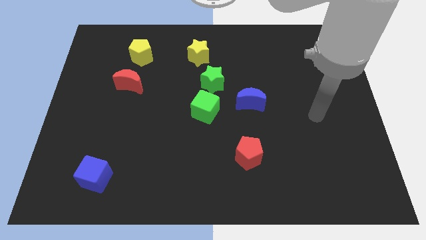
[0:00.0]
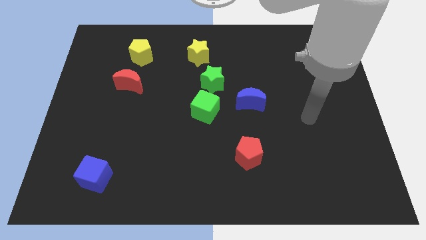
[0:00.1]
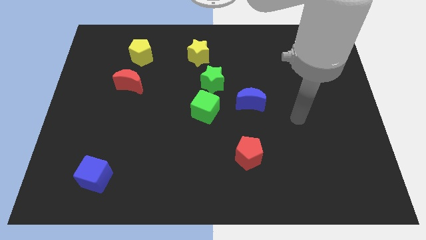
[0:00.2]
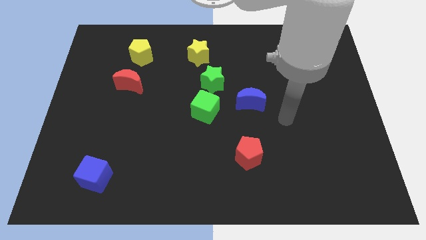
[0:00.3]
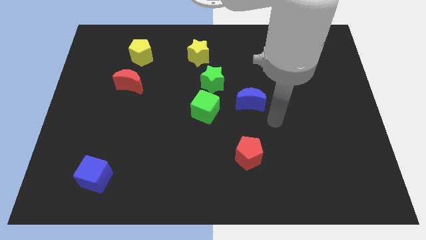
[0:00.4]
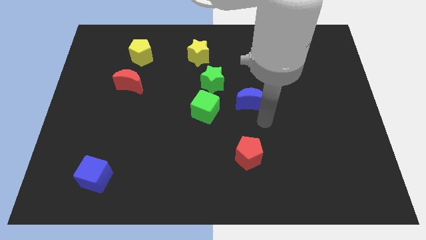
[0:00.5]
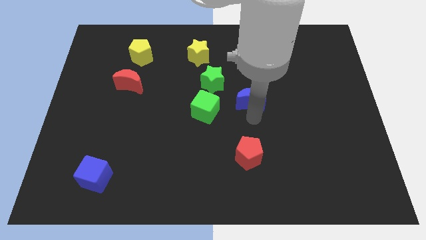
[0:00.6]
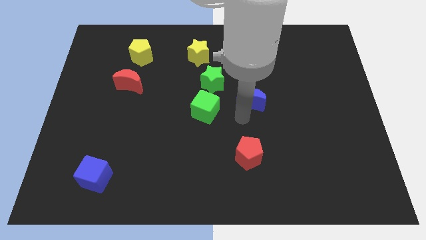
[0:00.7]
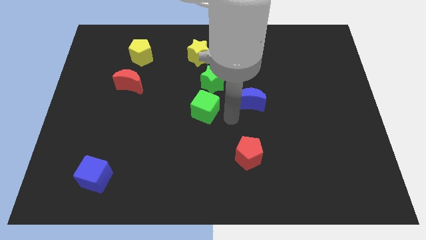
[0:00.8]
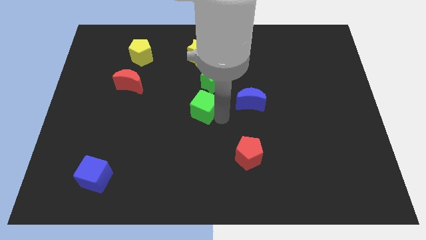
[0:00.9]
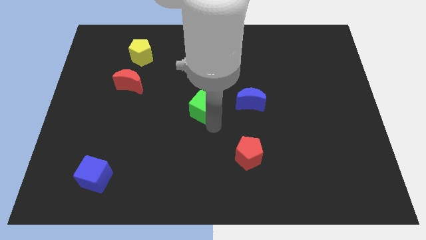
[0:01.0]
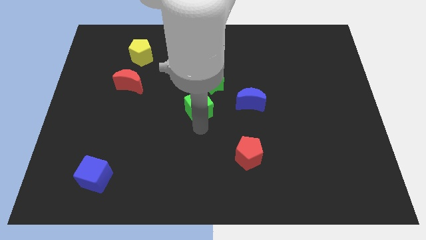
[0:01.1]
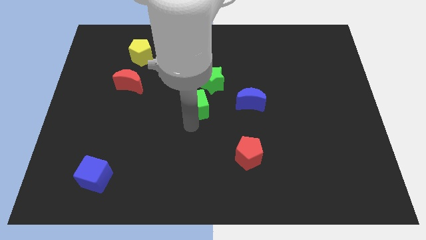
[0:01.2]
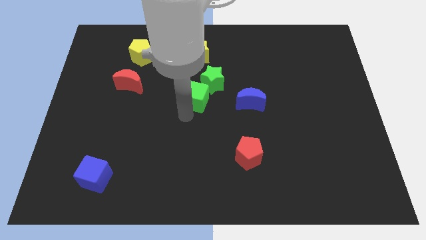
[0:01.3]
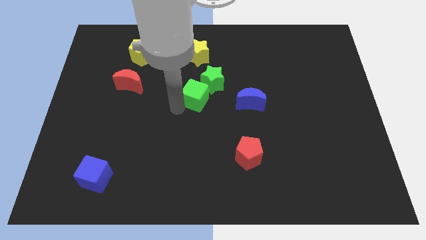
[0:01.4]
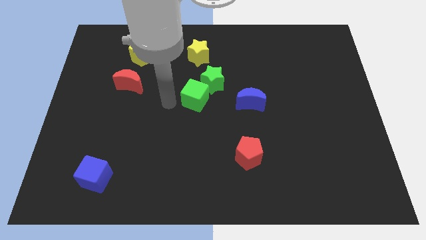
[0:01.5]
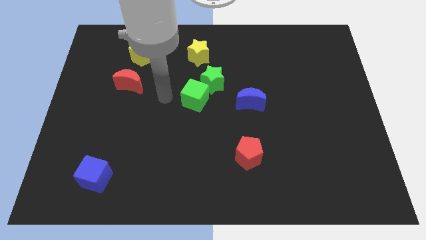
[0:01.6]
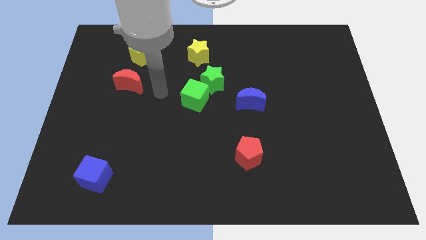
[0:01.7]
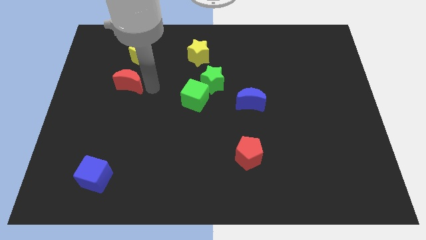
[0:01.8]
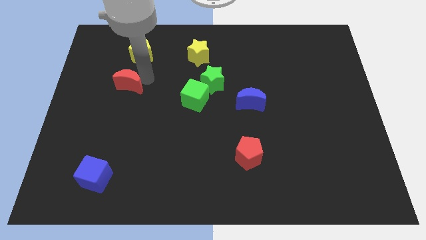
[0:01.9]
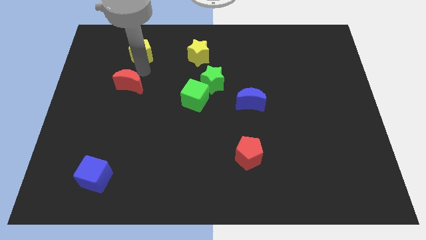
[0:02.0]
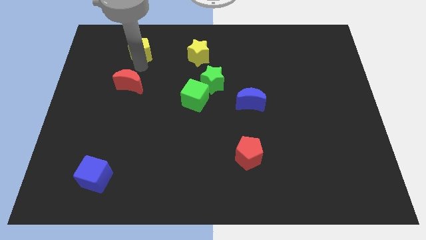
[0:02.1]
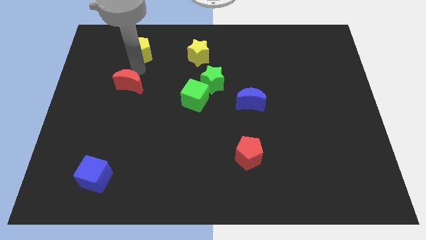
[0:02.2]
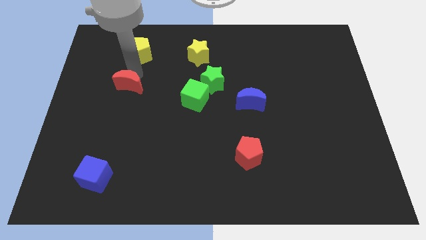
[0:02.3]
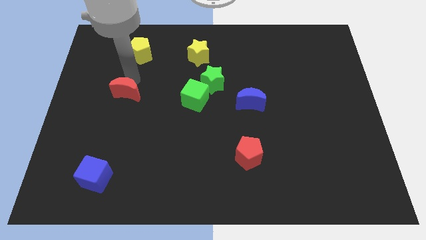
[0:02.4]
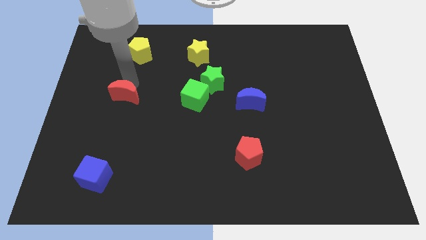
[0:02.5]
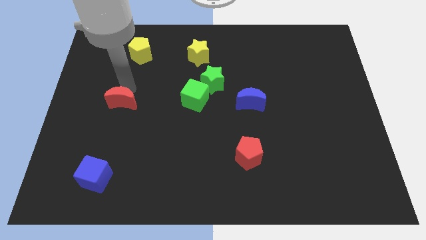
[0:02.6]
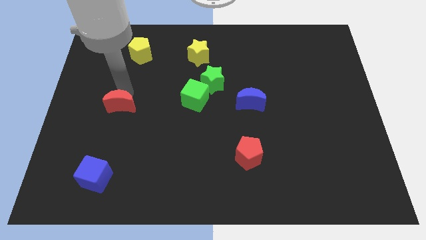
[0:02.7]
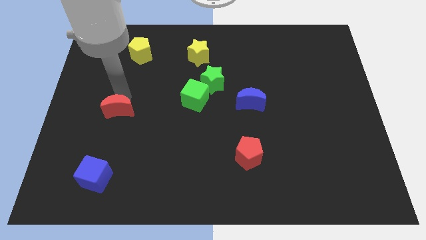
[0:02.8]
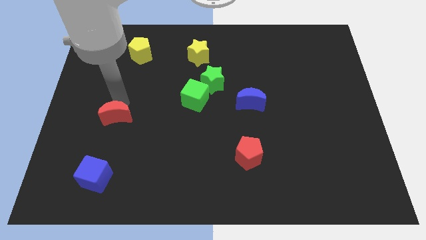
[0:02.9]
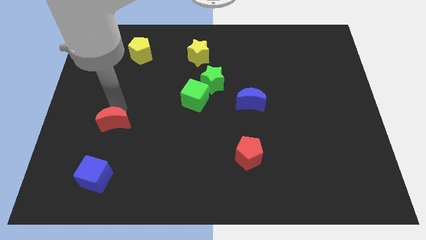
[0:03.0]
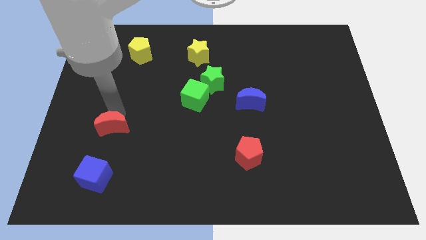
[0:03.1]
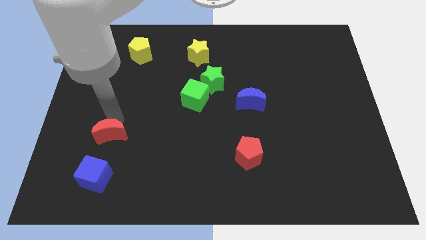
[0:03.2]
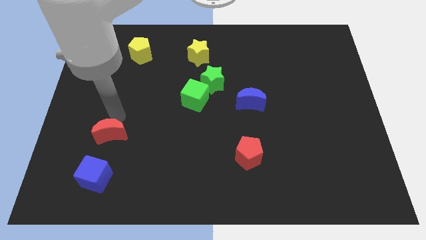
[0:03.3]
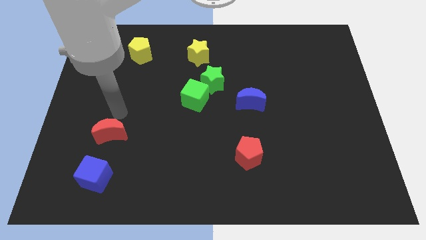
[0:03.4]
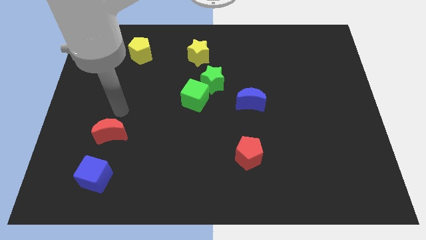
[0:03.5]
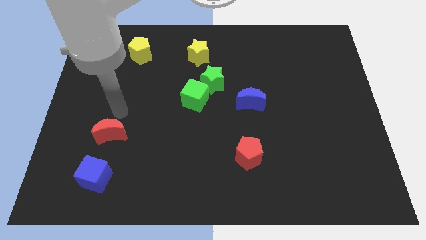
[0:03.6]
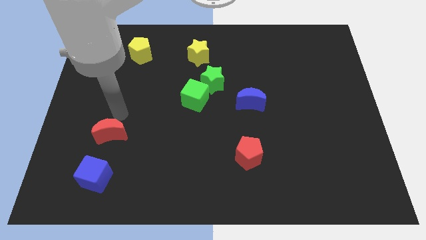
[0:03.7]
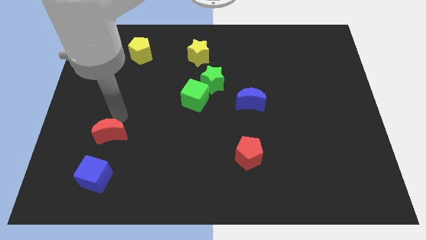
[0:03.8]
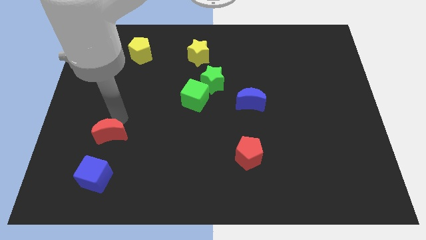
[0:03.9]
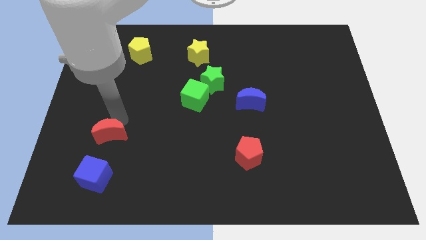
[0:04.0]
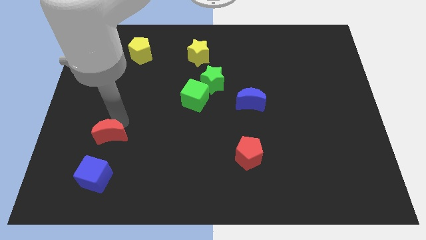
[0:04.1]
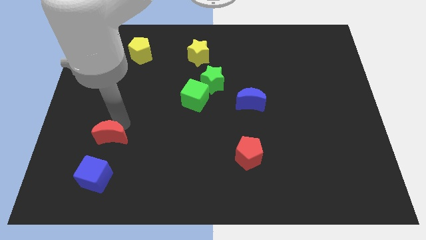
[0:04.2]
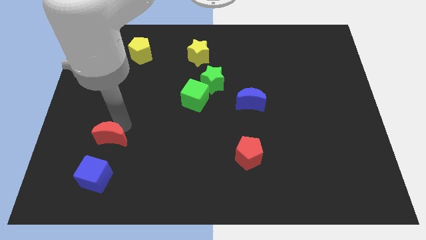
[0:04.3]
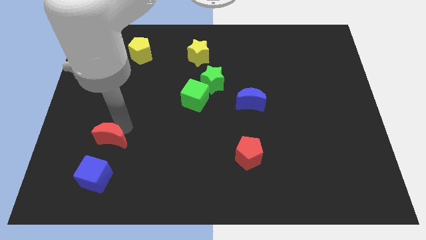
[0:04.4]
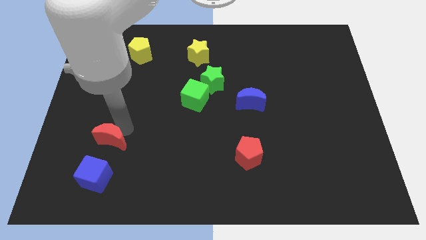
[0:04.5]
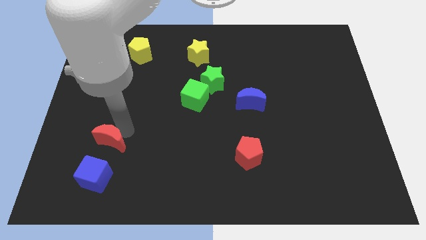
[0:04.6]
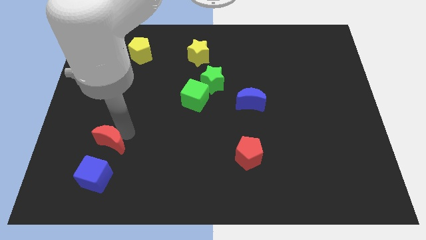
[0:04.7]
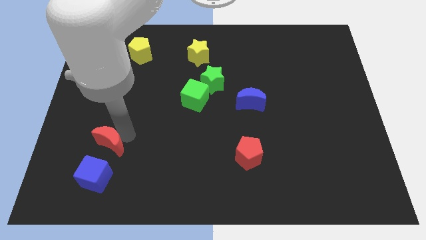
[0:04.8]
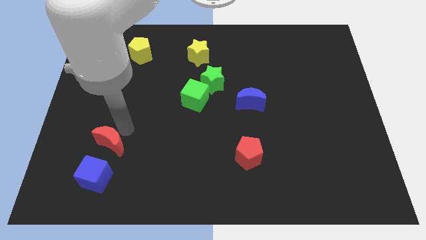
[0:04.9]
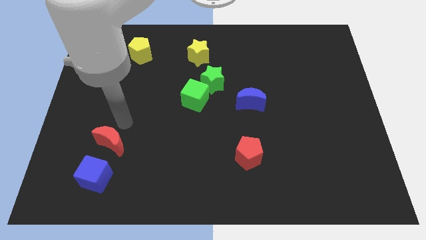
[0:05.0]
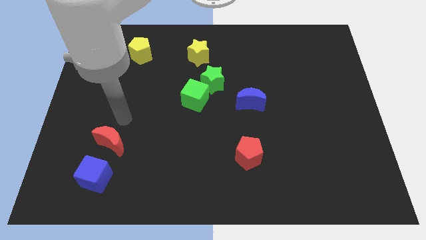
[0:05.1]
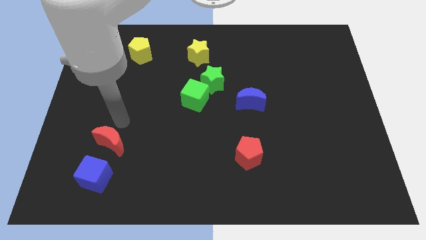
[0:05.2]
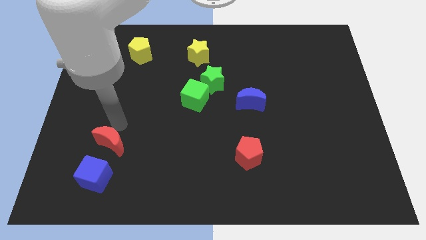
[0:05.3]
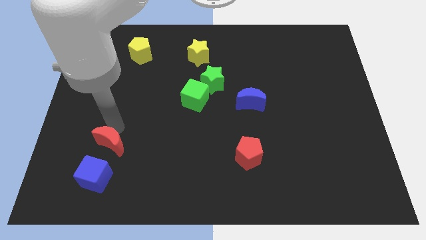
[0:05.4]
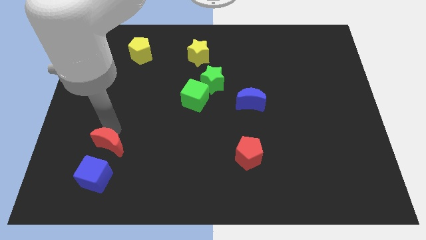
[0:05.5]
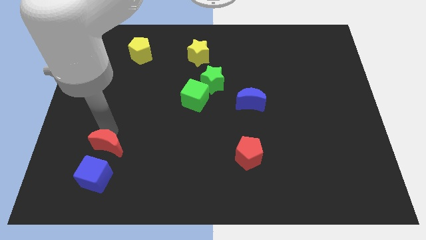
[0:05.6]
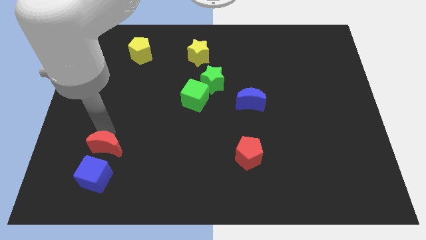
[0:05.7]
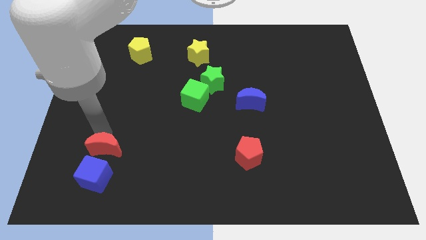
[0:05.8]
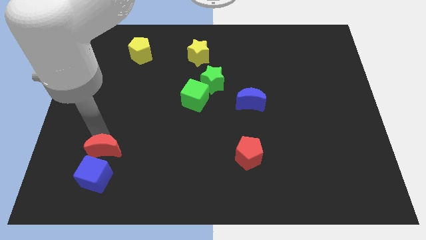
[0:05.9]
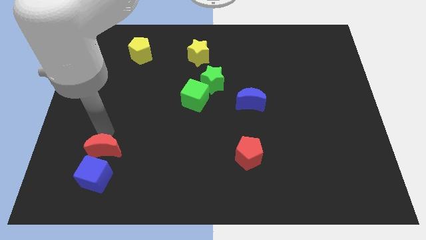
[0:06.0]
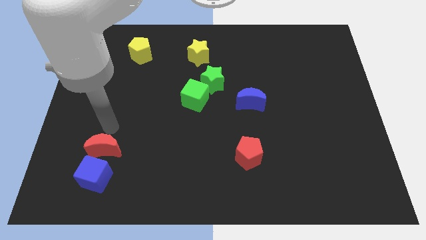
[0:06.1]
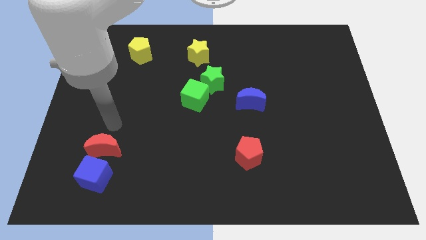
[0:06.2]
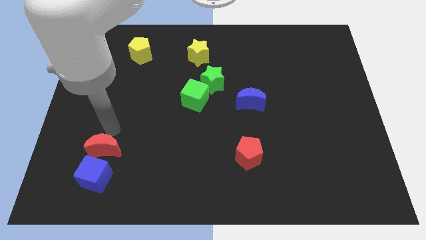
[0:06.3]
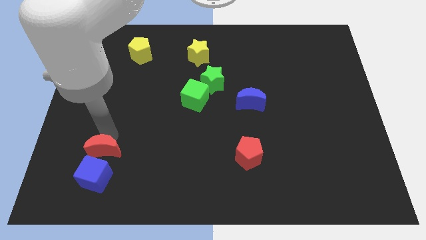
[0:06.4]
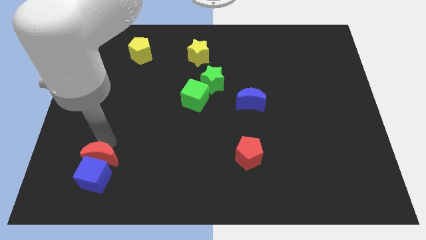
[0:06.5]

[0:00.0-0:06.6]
put the red moon close to the blue cube

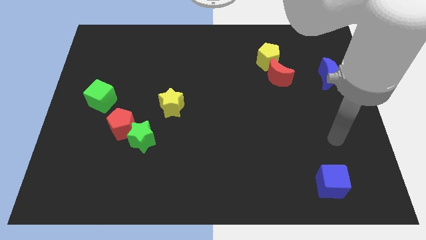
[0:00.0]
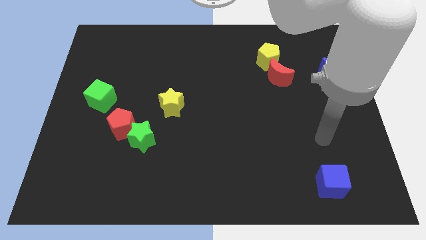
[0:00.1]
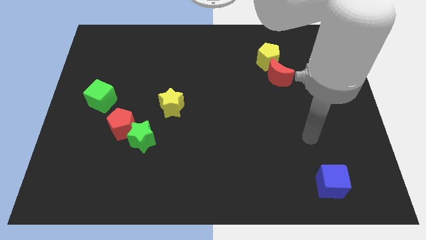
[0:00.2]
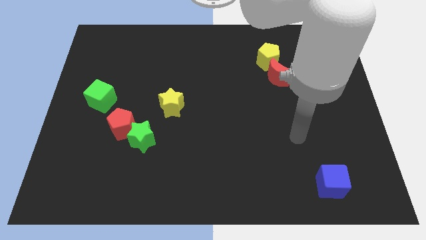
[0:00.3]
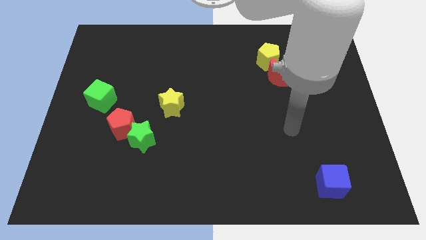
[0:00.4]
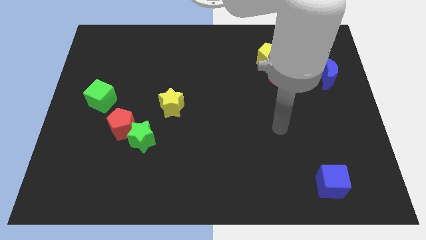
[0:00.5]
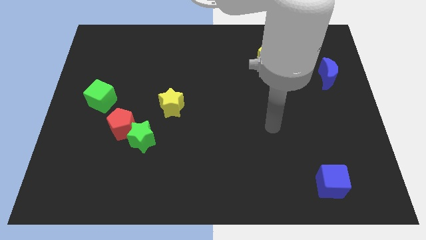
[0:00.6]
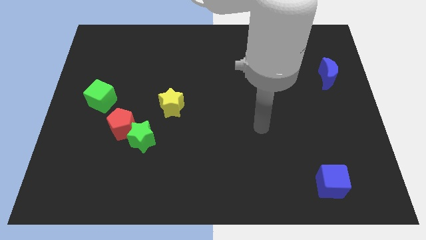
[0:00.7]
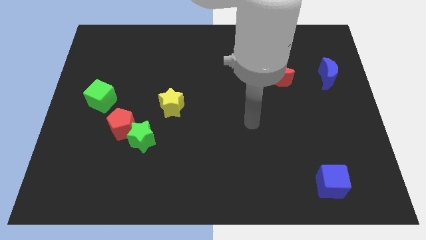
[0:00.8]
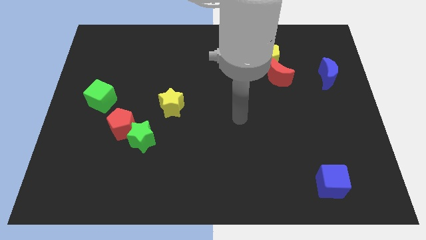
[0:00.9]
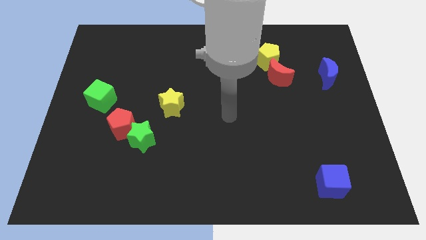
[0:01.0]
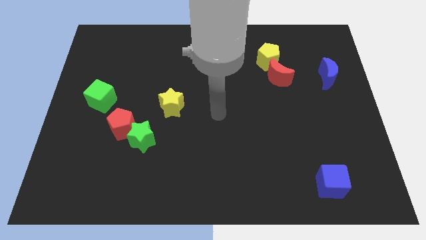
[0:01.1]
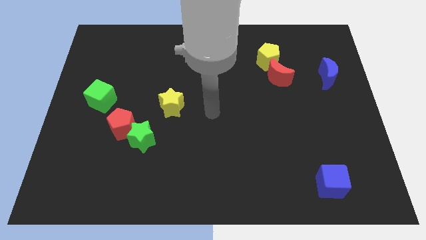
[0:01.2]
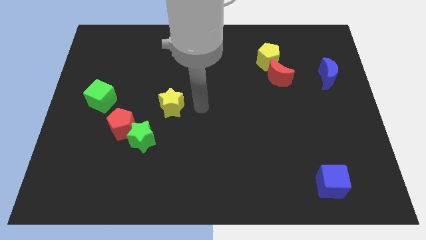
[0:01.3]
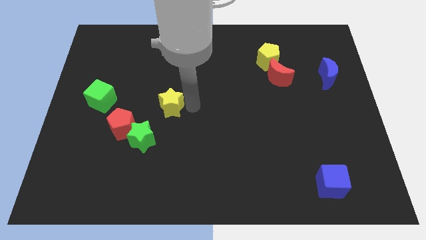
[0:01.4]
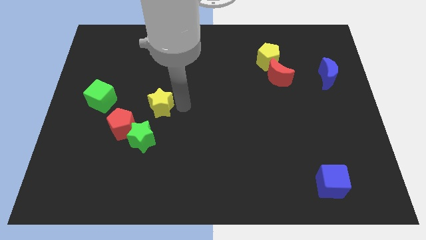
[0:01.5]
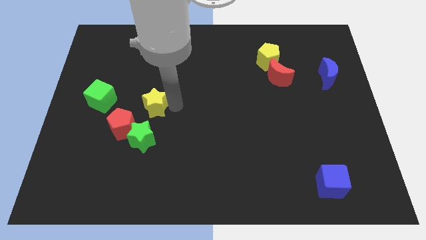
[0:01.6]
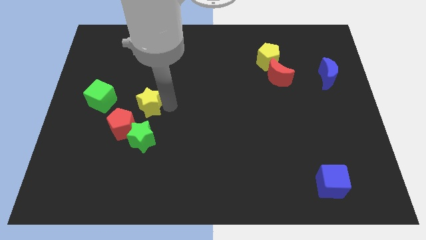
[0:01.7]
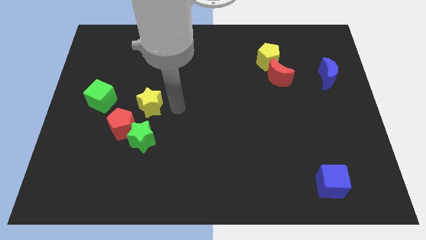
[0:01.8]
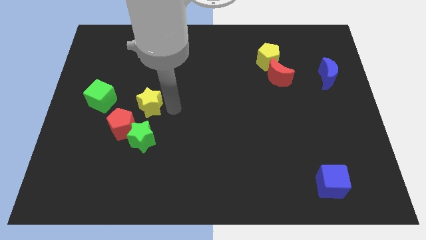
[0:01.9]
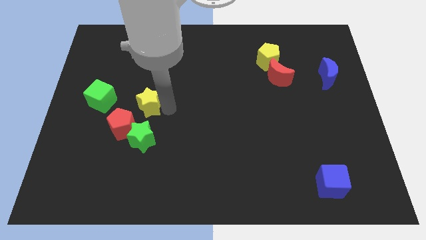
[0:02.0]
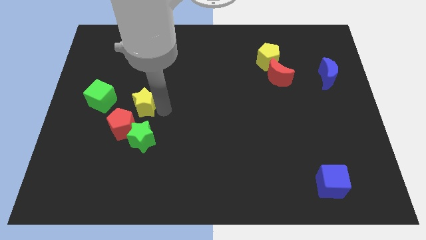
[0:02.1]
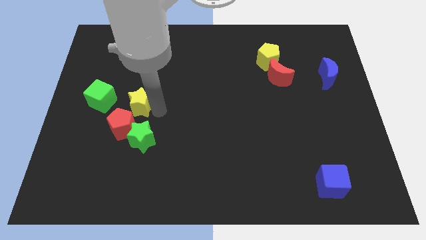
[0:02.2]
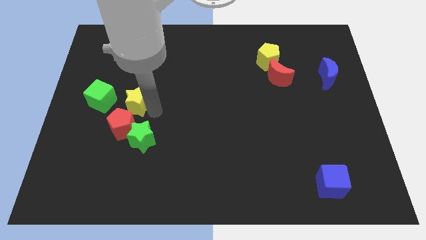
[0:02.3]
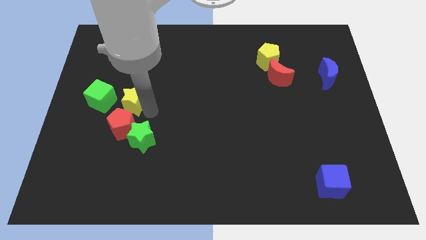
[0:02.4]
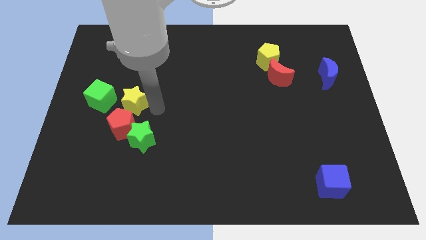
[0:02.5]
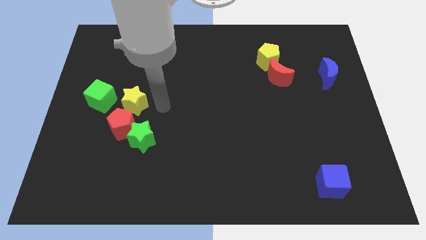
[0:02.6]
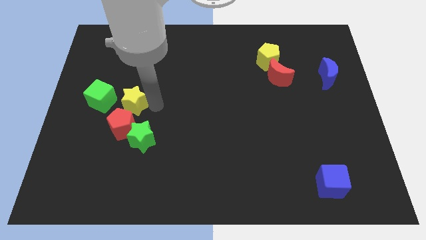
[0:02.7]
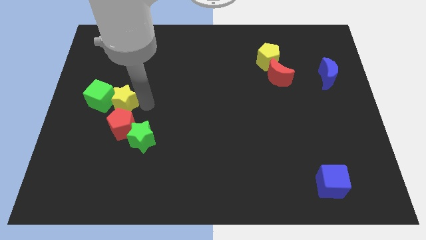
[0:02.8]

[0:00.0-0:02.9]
push the yellow star to the green cube
